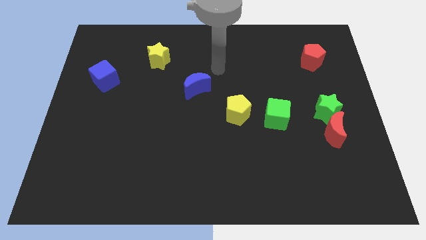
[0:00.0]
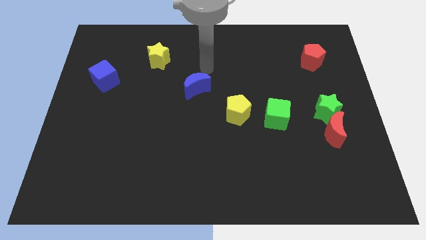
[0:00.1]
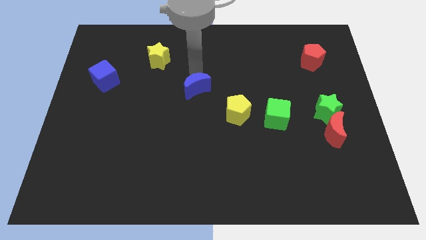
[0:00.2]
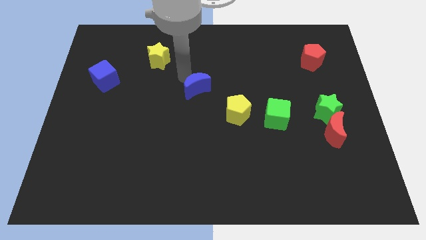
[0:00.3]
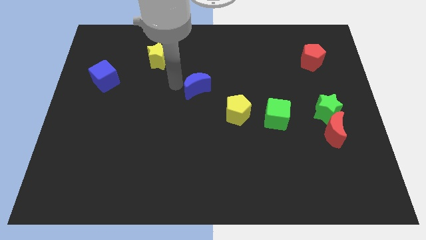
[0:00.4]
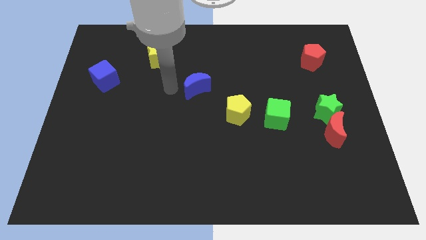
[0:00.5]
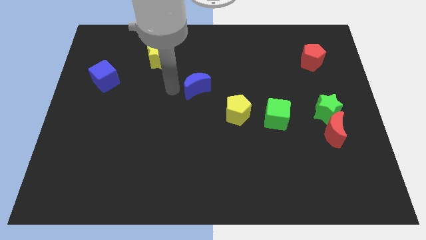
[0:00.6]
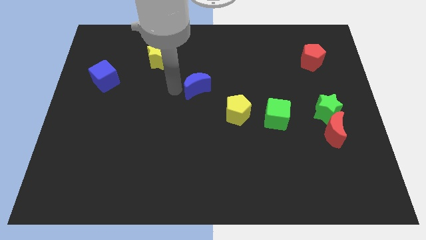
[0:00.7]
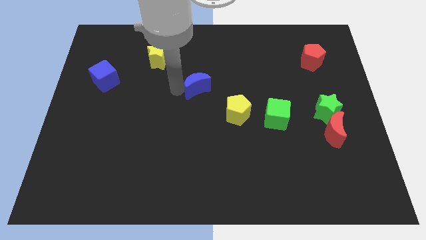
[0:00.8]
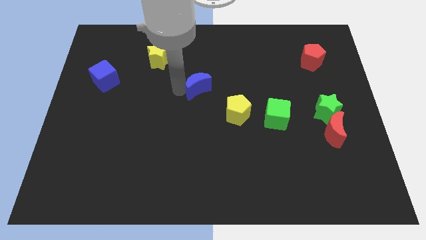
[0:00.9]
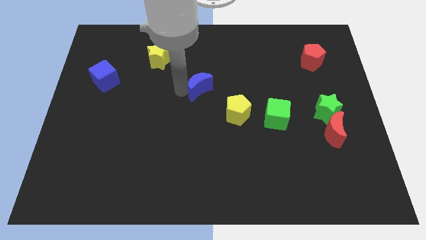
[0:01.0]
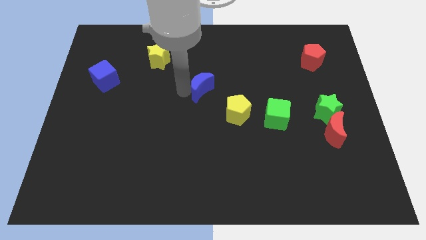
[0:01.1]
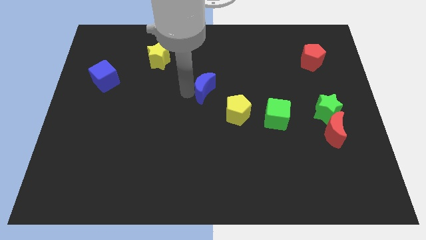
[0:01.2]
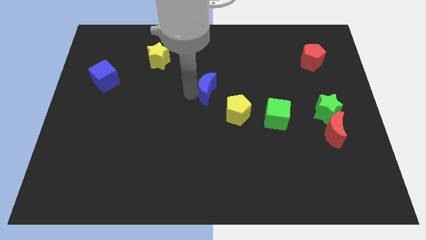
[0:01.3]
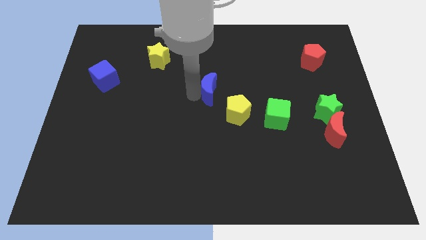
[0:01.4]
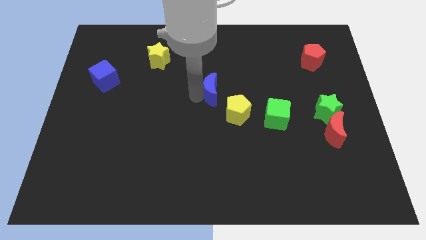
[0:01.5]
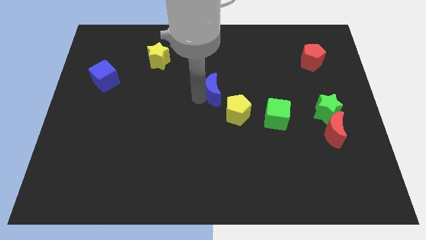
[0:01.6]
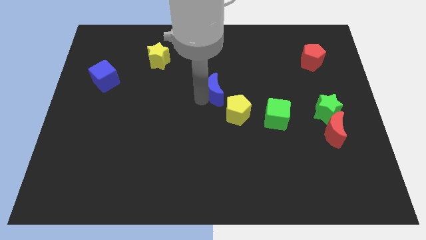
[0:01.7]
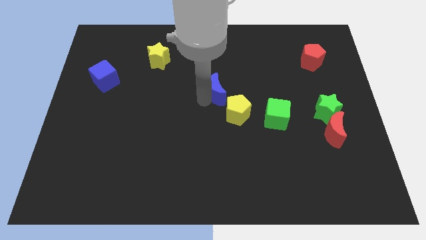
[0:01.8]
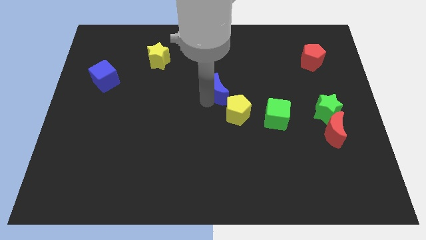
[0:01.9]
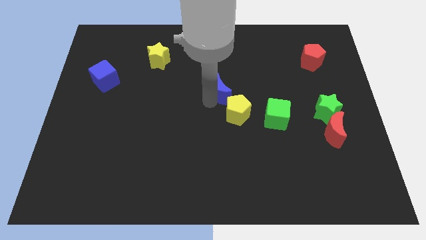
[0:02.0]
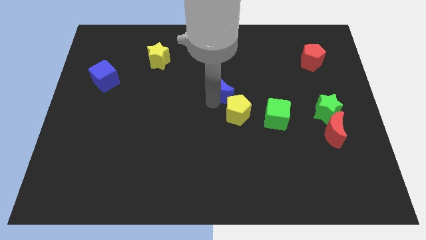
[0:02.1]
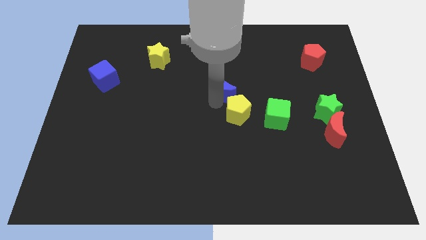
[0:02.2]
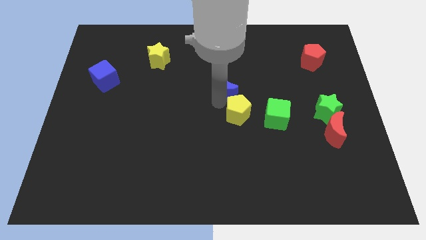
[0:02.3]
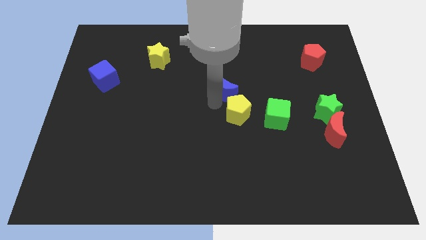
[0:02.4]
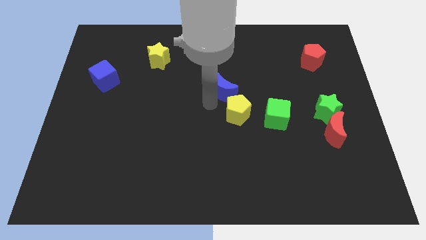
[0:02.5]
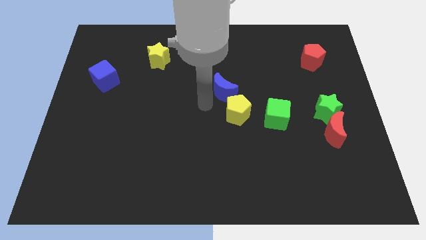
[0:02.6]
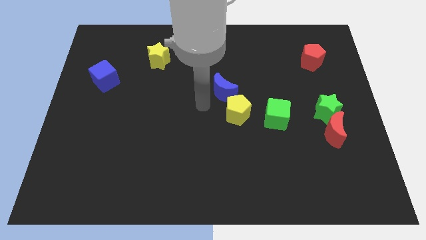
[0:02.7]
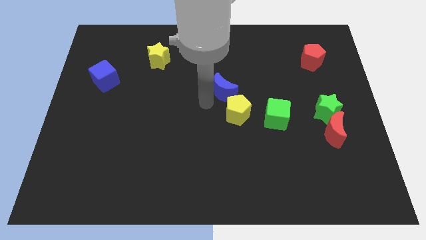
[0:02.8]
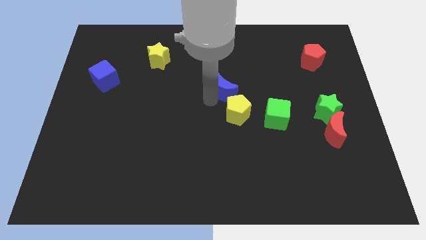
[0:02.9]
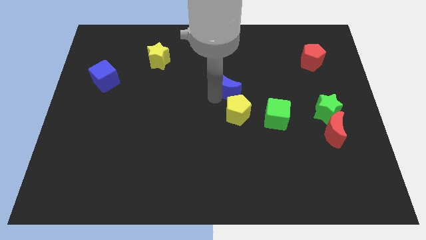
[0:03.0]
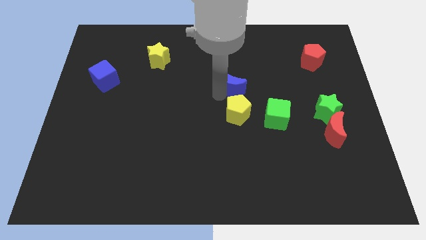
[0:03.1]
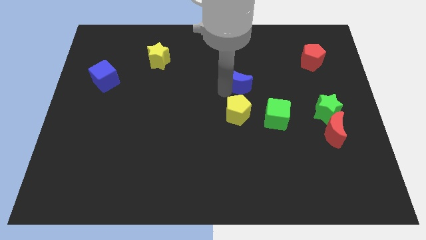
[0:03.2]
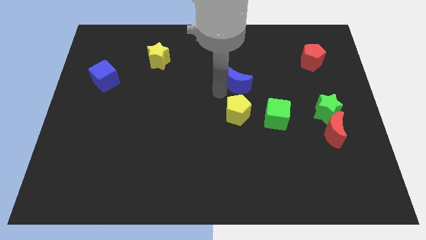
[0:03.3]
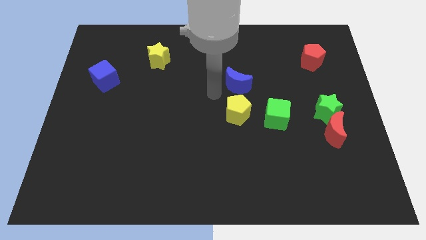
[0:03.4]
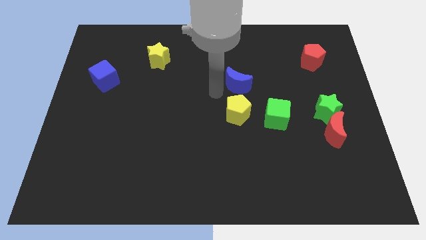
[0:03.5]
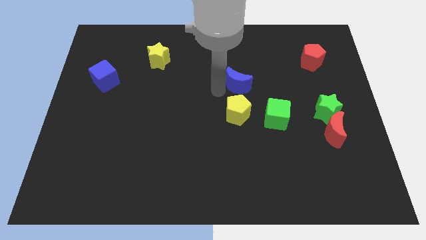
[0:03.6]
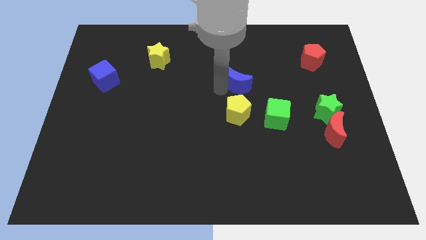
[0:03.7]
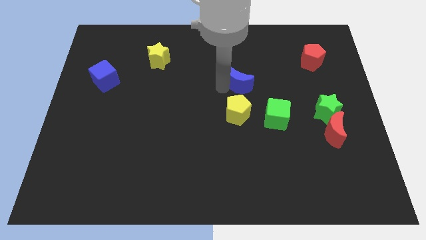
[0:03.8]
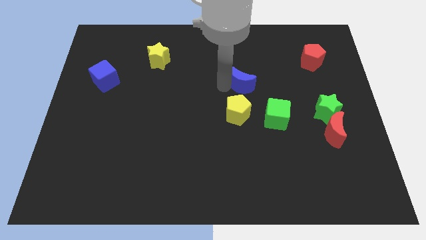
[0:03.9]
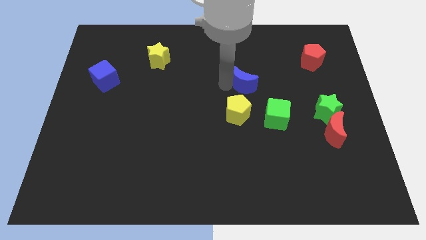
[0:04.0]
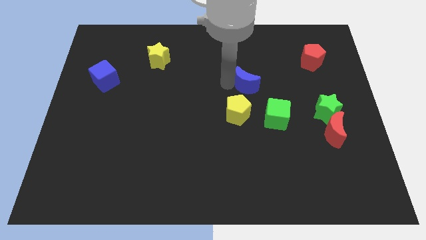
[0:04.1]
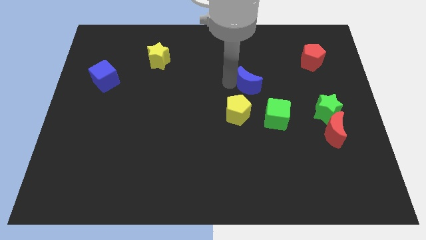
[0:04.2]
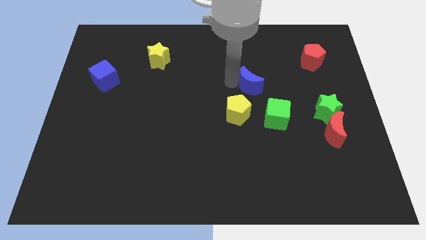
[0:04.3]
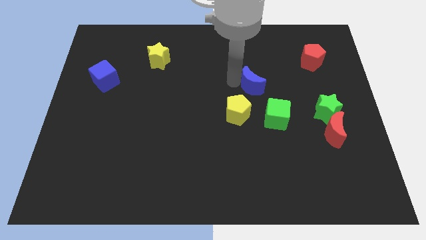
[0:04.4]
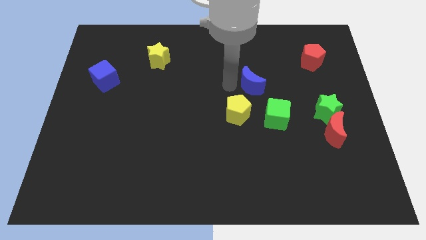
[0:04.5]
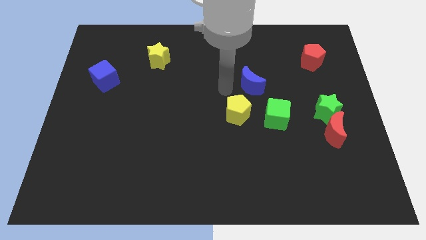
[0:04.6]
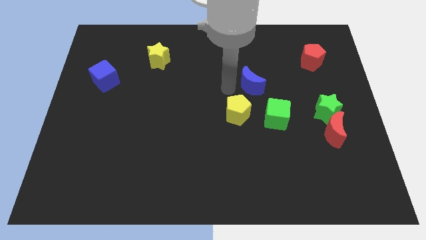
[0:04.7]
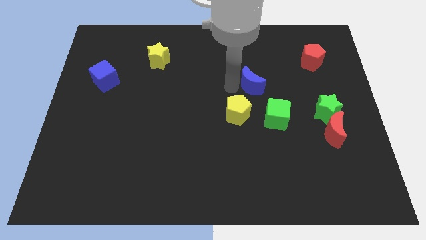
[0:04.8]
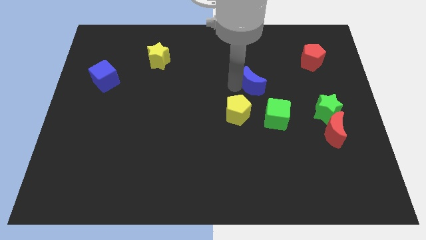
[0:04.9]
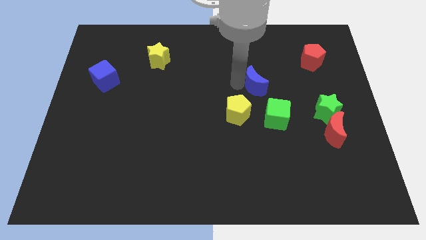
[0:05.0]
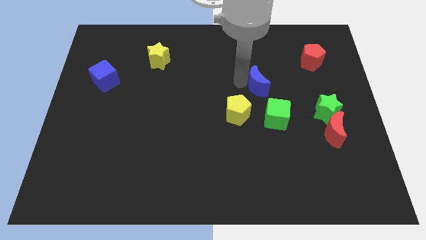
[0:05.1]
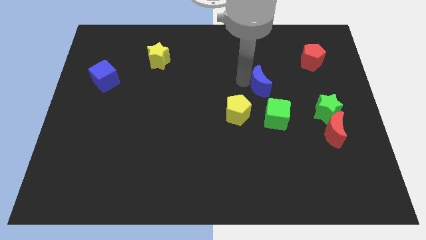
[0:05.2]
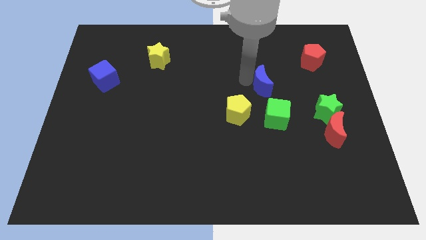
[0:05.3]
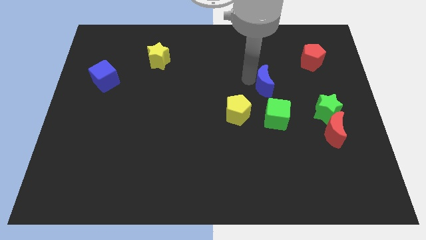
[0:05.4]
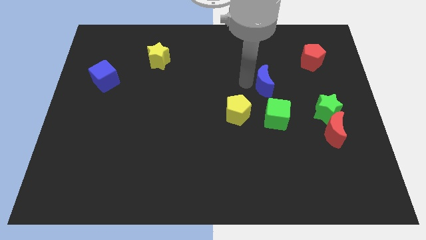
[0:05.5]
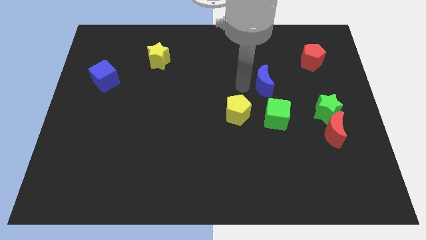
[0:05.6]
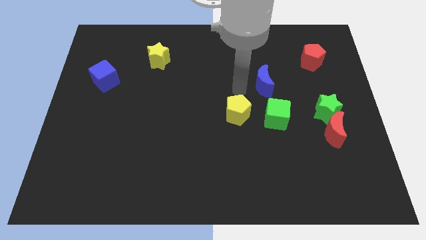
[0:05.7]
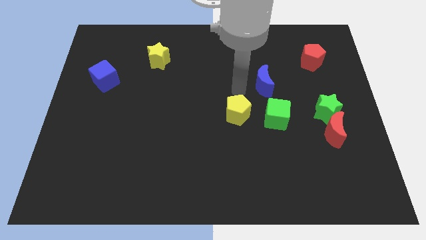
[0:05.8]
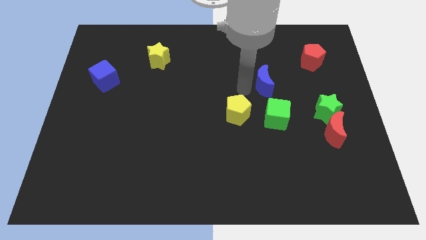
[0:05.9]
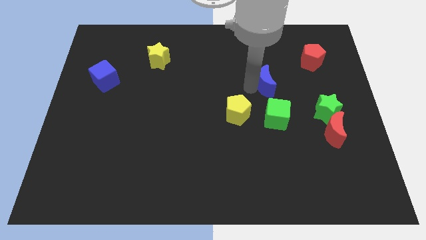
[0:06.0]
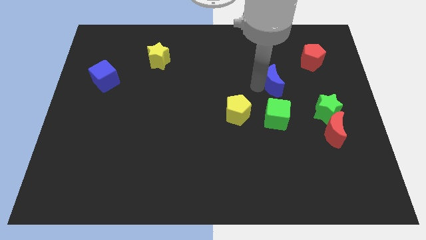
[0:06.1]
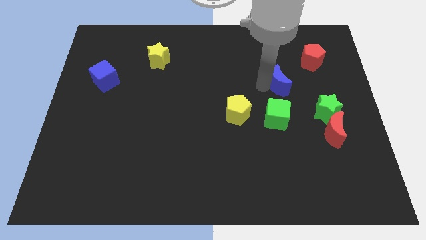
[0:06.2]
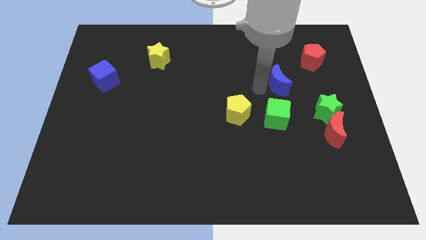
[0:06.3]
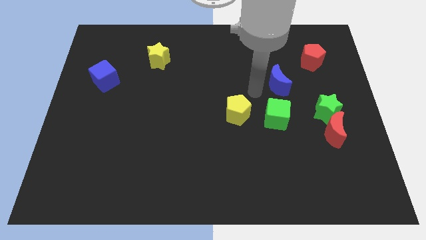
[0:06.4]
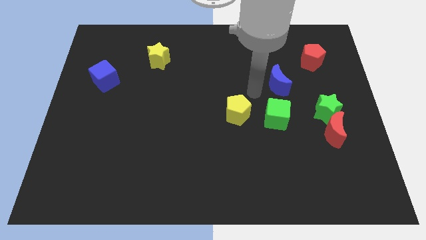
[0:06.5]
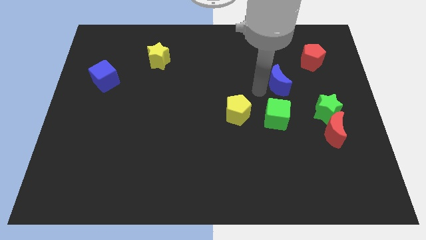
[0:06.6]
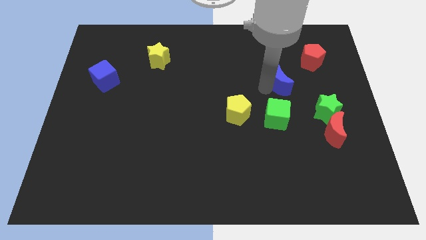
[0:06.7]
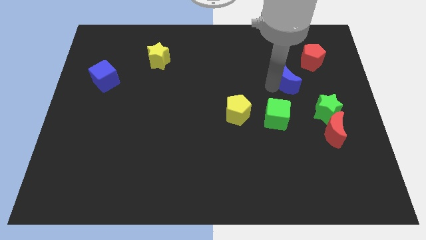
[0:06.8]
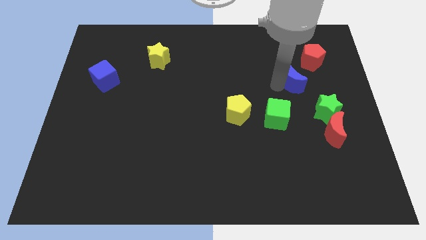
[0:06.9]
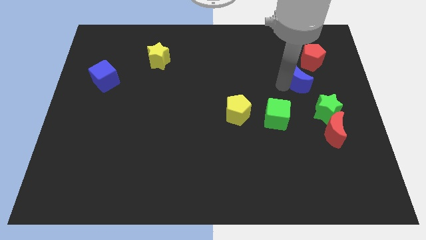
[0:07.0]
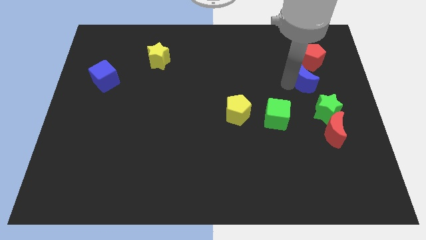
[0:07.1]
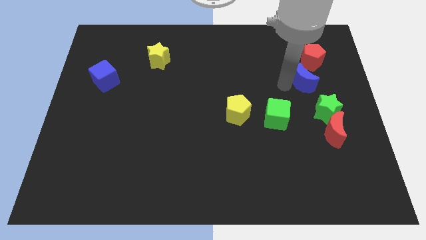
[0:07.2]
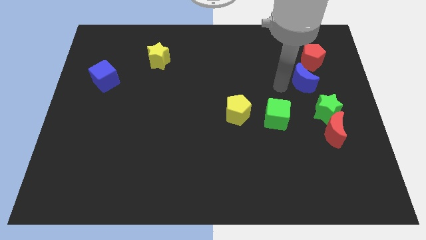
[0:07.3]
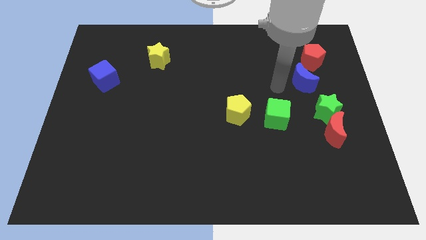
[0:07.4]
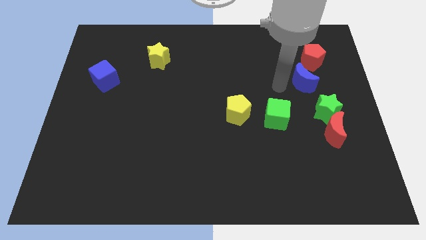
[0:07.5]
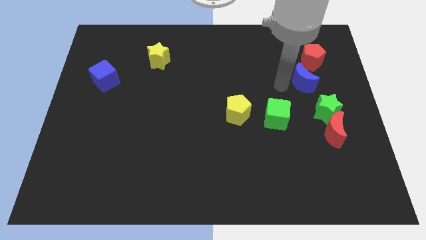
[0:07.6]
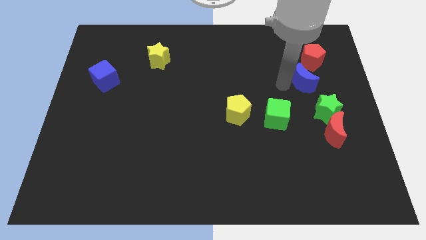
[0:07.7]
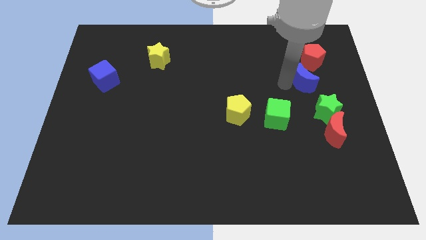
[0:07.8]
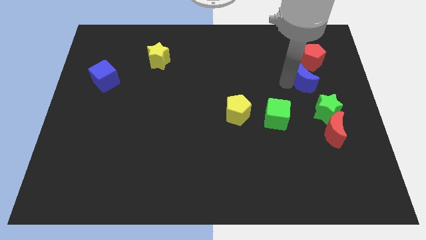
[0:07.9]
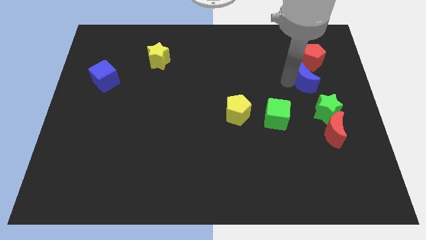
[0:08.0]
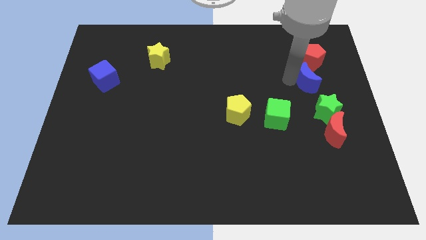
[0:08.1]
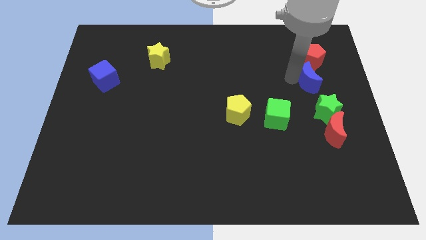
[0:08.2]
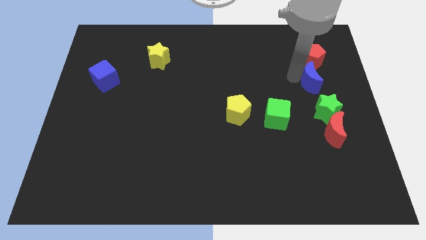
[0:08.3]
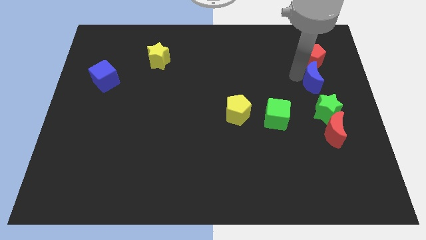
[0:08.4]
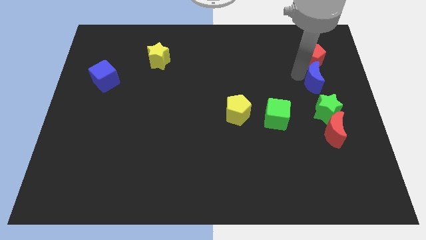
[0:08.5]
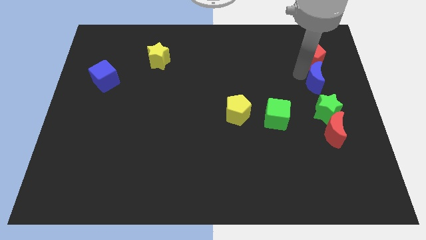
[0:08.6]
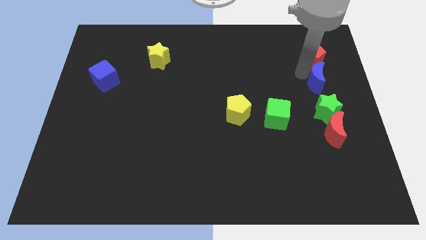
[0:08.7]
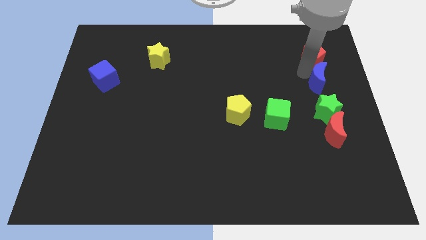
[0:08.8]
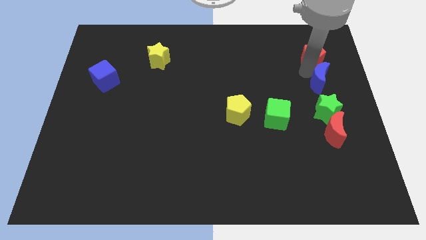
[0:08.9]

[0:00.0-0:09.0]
slide the blue moon to the center right
